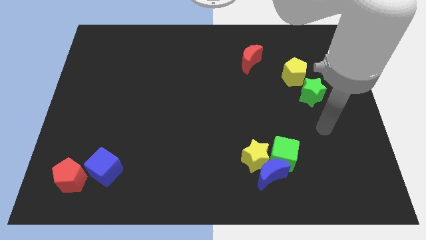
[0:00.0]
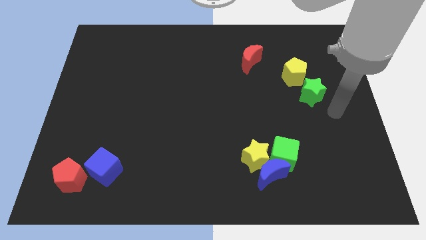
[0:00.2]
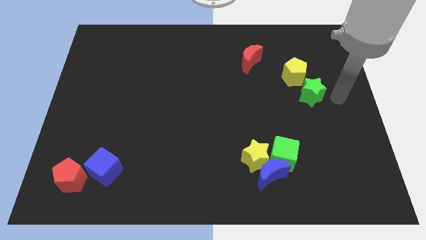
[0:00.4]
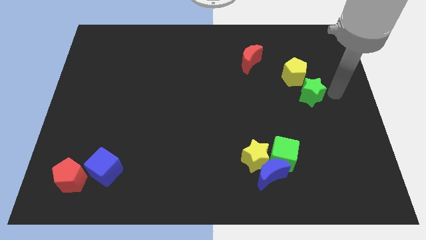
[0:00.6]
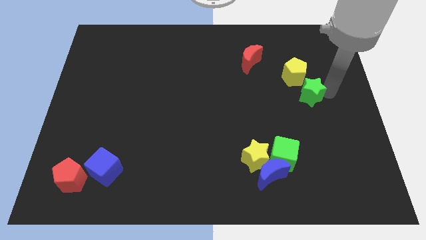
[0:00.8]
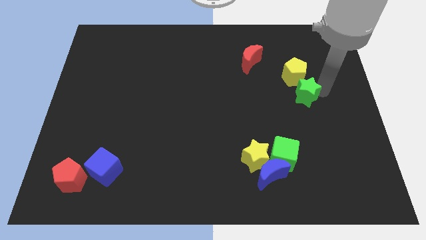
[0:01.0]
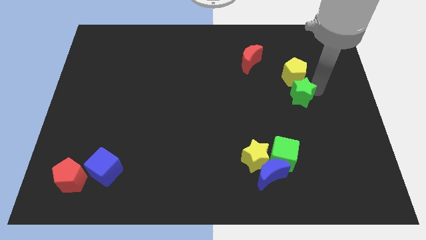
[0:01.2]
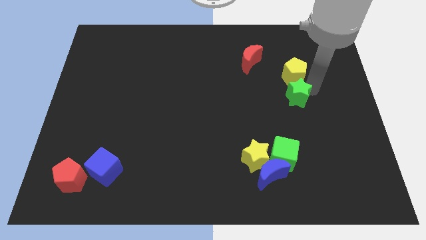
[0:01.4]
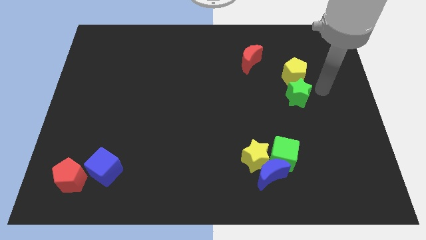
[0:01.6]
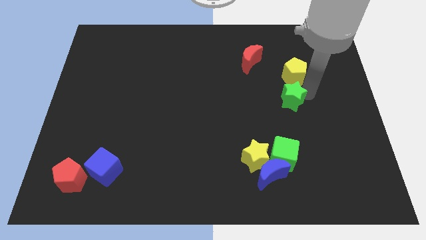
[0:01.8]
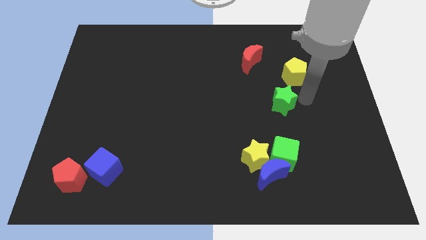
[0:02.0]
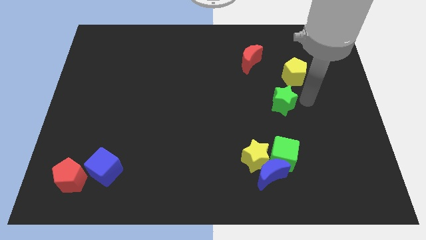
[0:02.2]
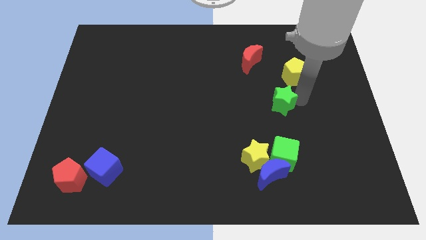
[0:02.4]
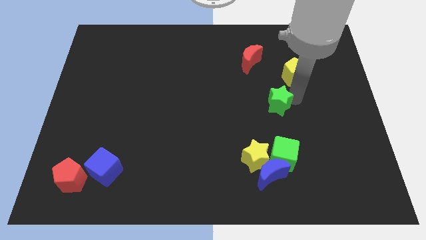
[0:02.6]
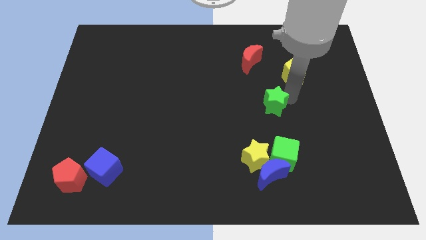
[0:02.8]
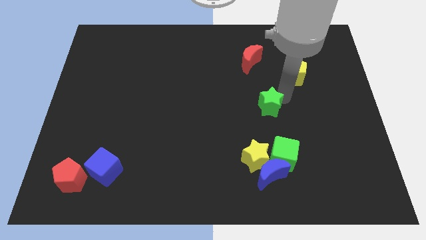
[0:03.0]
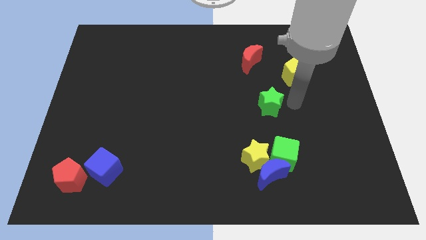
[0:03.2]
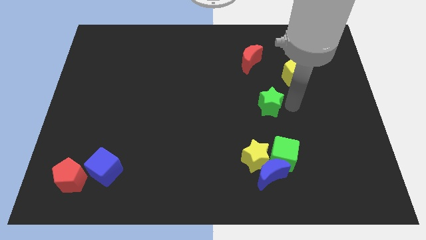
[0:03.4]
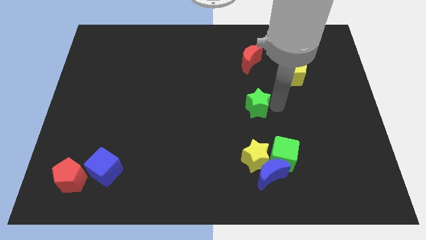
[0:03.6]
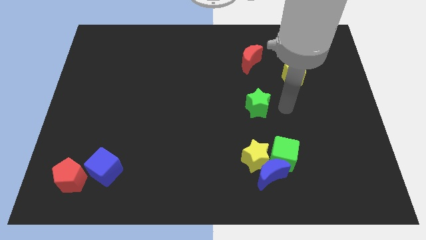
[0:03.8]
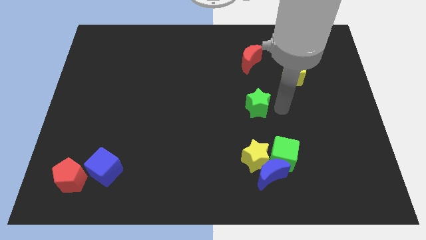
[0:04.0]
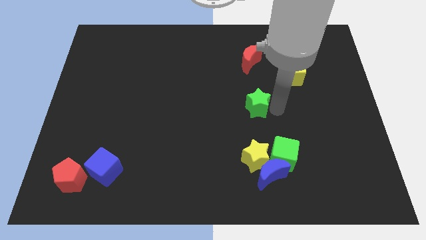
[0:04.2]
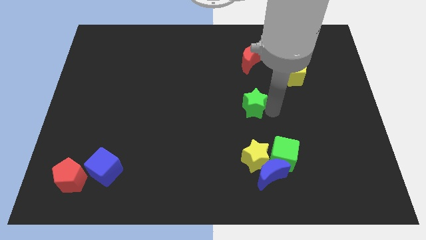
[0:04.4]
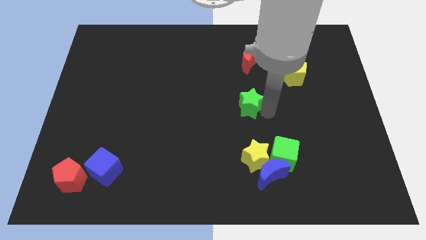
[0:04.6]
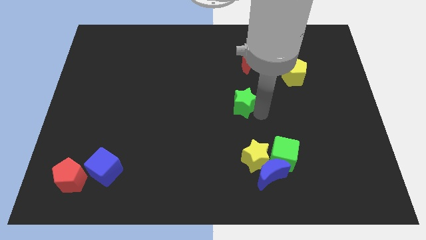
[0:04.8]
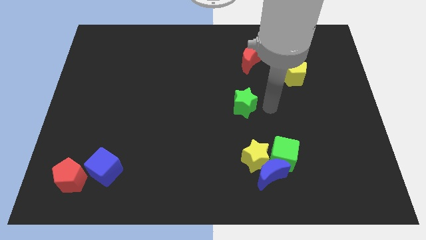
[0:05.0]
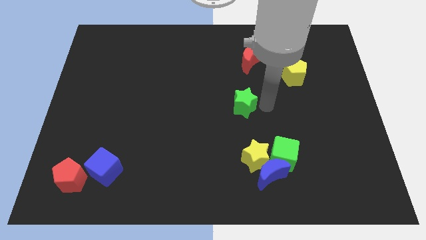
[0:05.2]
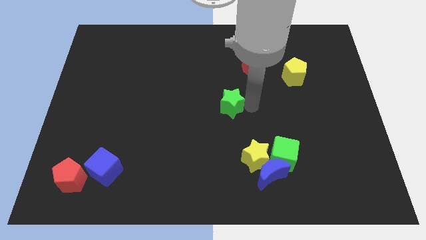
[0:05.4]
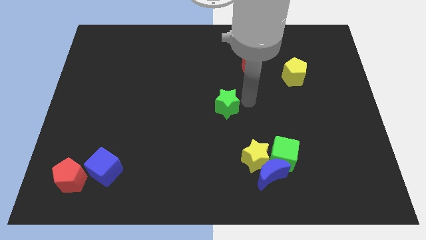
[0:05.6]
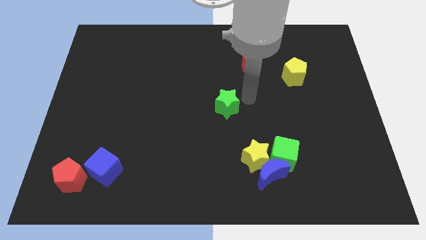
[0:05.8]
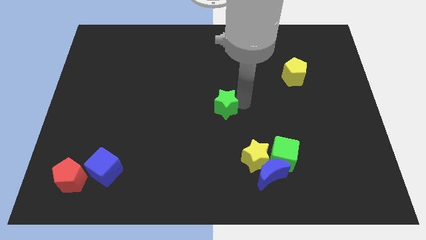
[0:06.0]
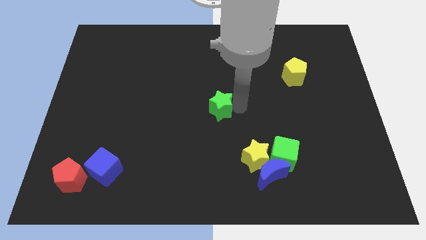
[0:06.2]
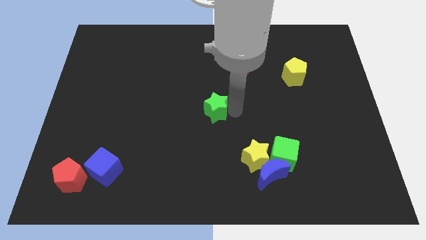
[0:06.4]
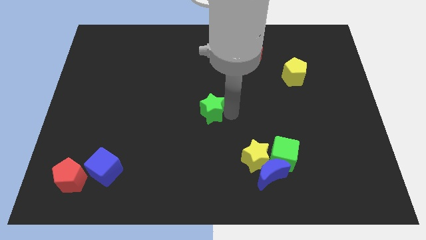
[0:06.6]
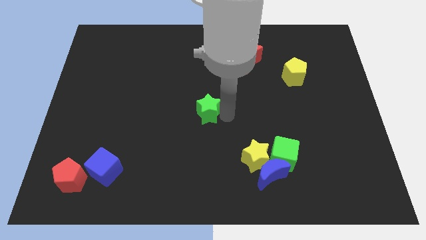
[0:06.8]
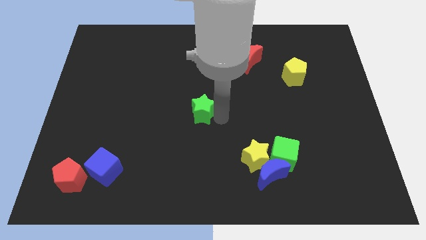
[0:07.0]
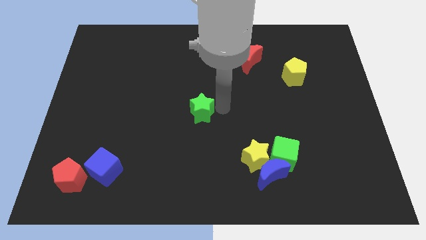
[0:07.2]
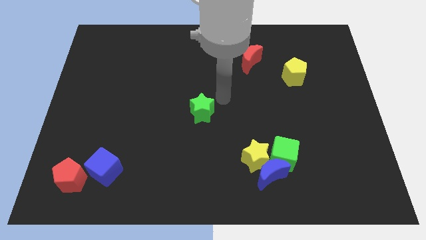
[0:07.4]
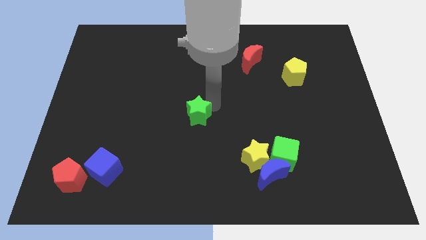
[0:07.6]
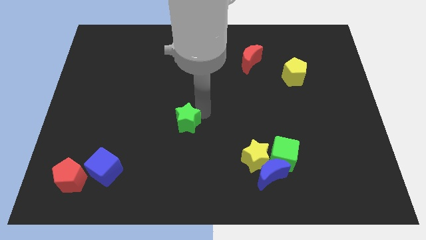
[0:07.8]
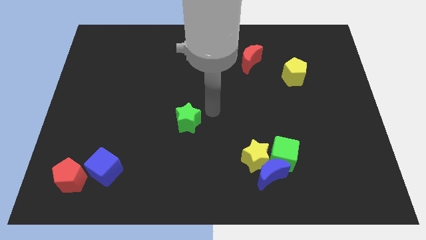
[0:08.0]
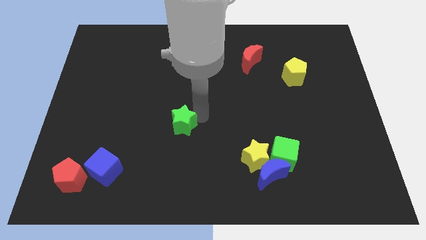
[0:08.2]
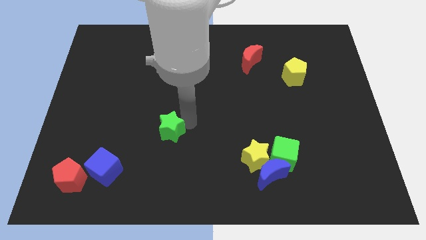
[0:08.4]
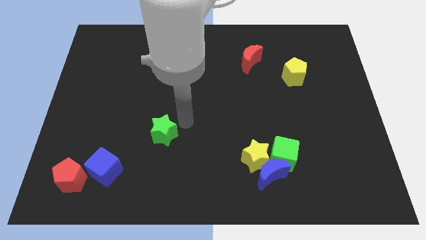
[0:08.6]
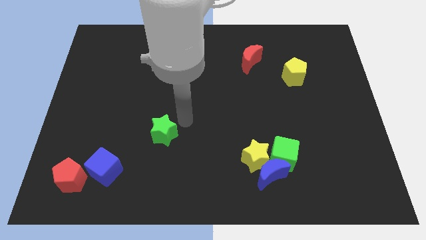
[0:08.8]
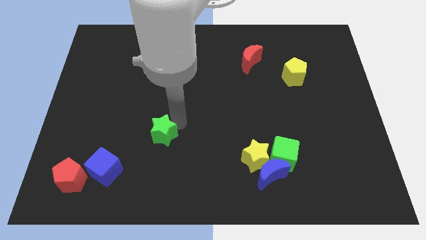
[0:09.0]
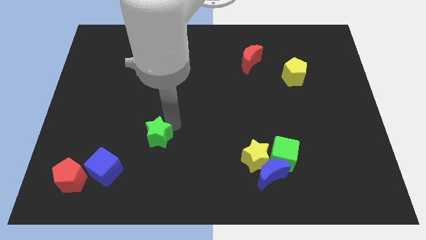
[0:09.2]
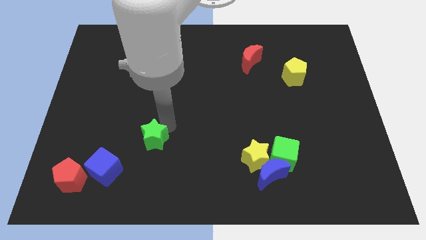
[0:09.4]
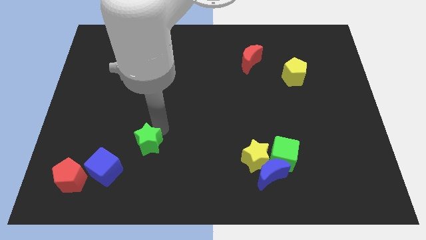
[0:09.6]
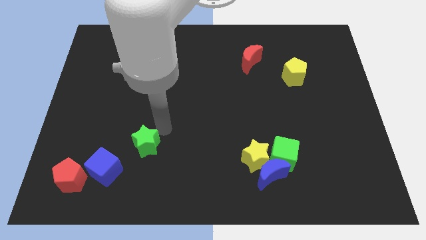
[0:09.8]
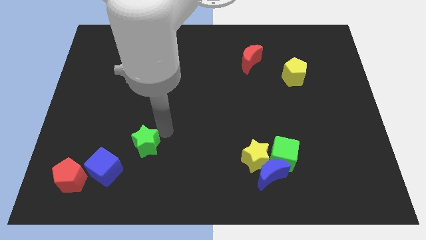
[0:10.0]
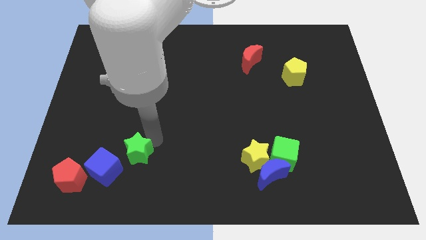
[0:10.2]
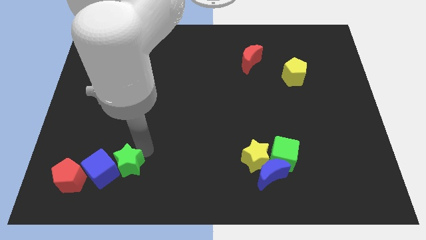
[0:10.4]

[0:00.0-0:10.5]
put the green star close to the blue cube

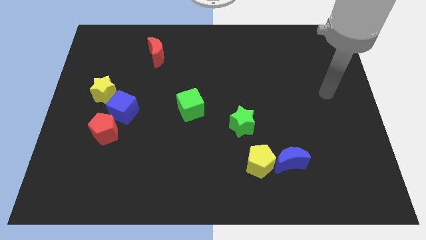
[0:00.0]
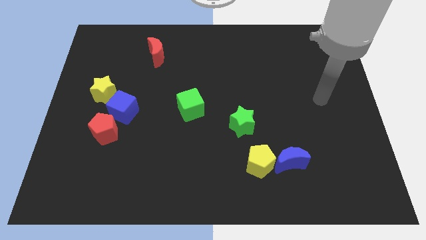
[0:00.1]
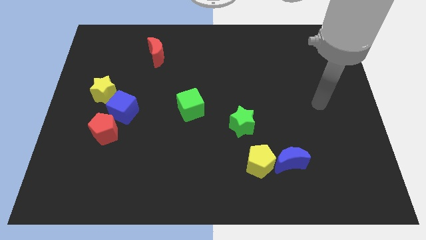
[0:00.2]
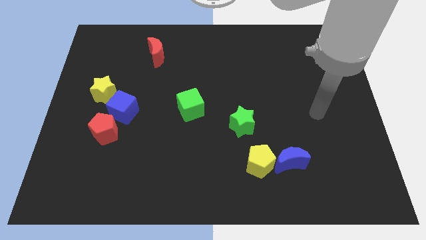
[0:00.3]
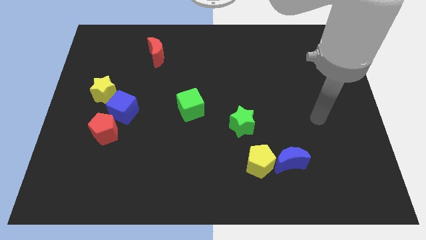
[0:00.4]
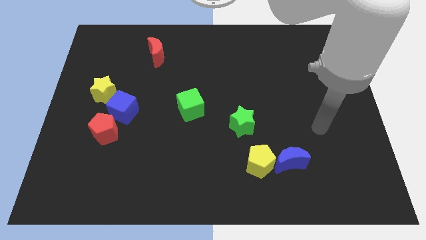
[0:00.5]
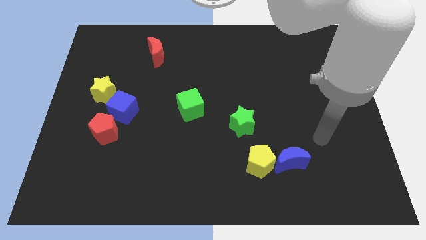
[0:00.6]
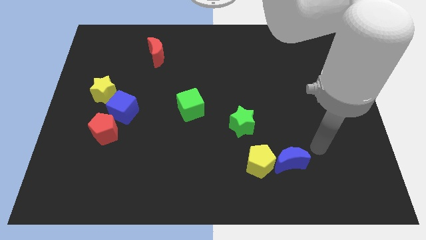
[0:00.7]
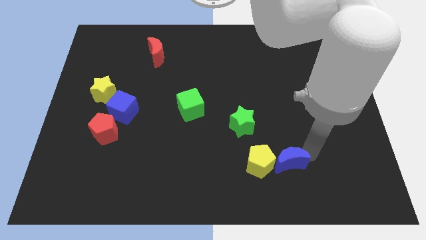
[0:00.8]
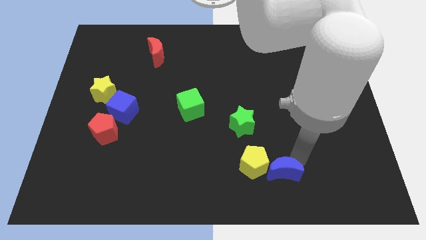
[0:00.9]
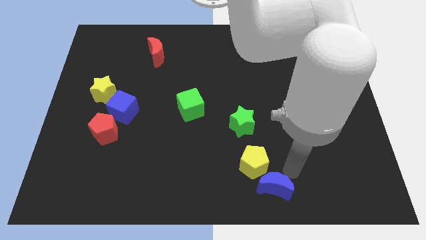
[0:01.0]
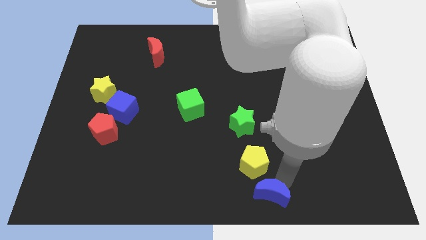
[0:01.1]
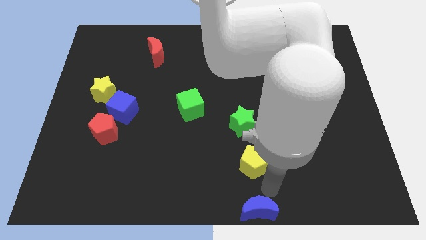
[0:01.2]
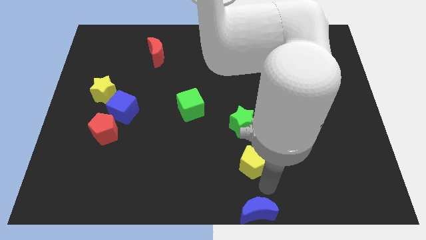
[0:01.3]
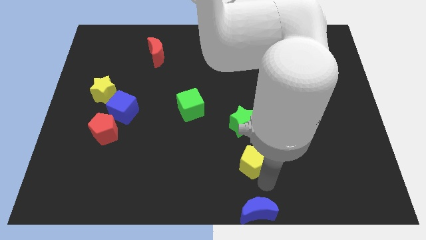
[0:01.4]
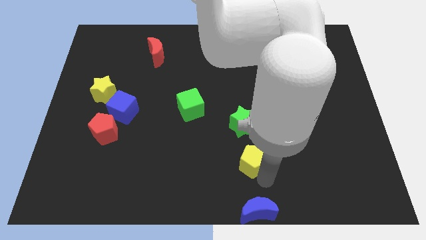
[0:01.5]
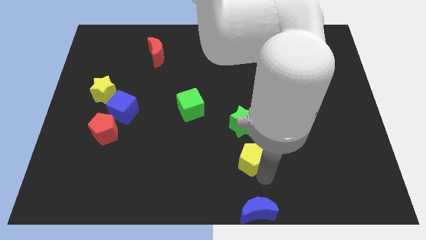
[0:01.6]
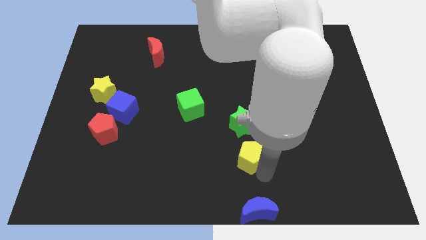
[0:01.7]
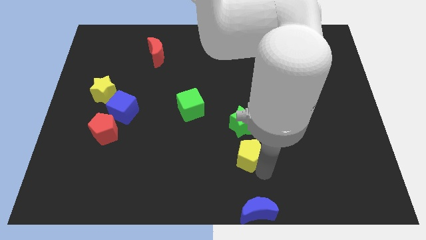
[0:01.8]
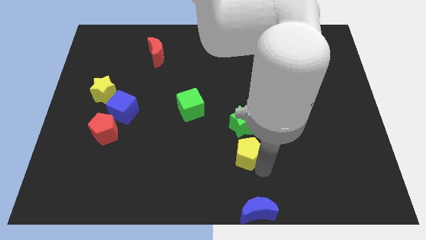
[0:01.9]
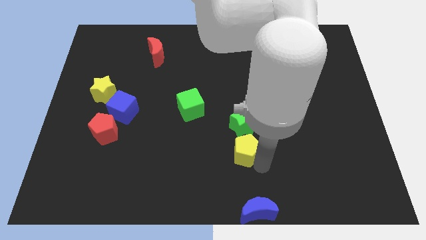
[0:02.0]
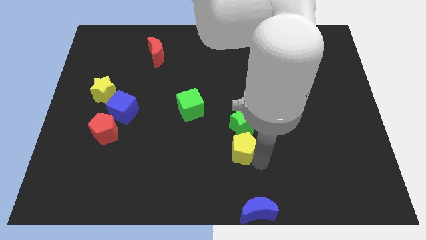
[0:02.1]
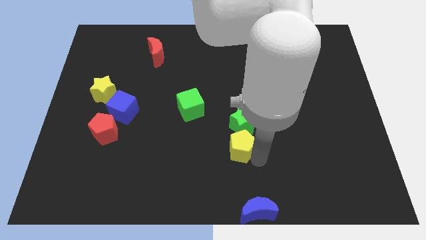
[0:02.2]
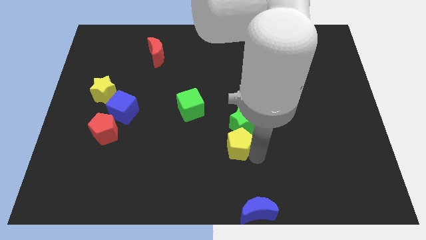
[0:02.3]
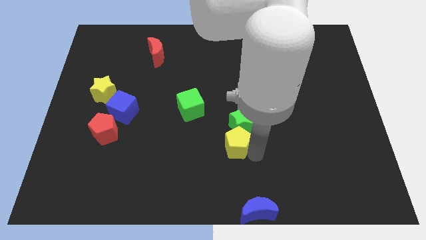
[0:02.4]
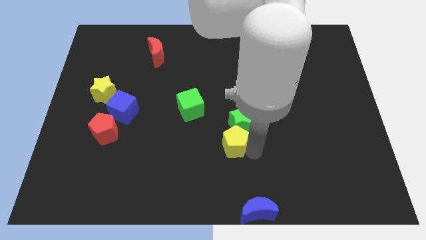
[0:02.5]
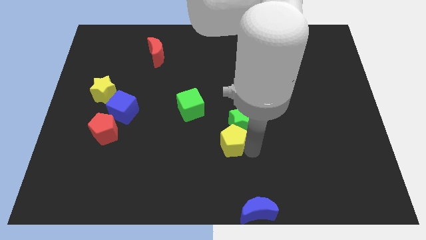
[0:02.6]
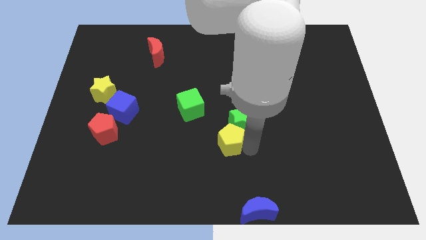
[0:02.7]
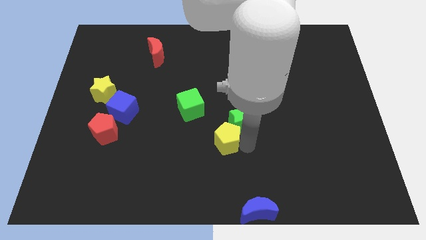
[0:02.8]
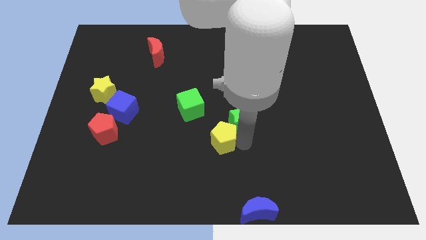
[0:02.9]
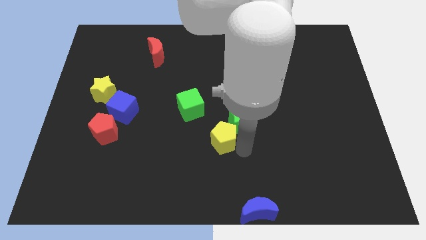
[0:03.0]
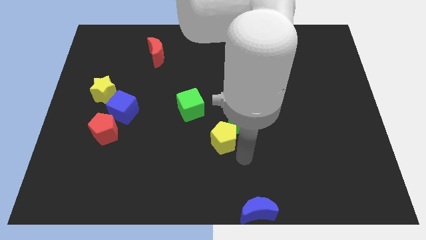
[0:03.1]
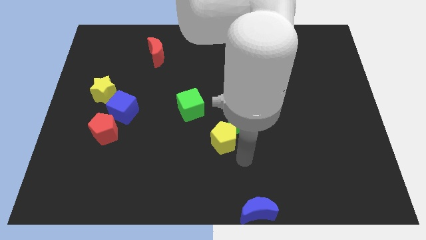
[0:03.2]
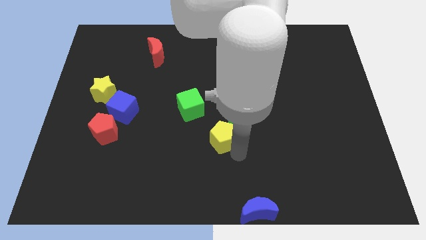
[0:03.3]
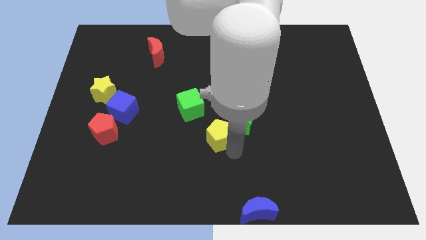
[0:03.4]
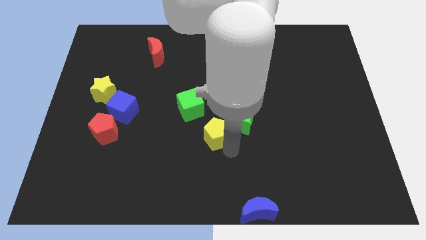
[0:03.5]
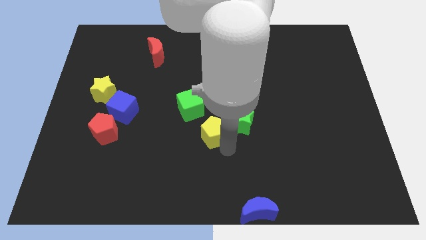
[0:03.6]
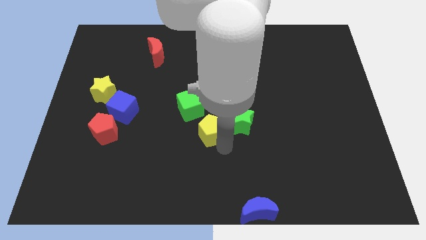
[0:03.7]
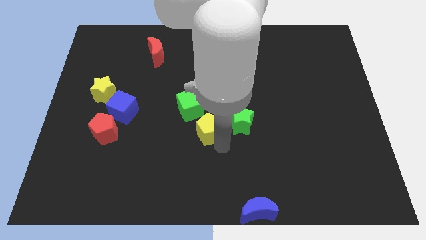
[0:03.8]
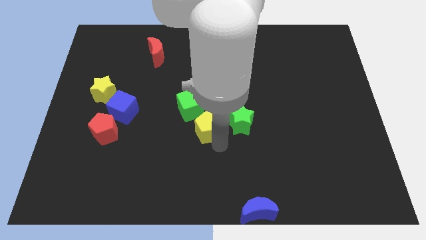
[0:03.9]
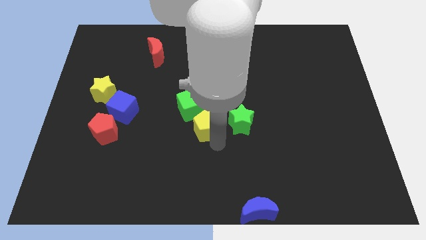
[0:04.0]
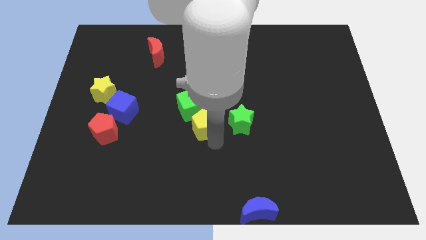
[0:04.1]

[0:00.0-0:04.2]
move the yellow pentagon close to the green cube
